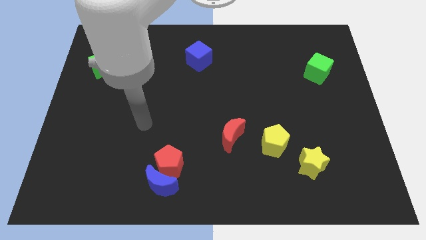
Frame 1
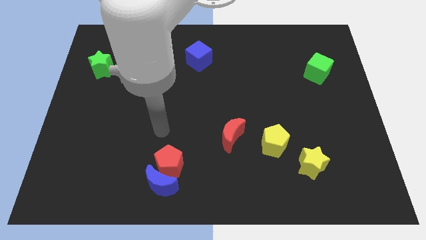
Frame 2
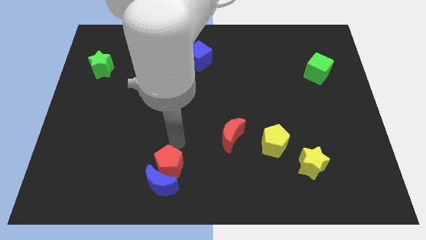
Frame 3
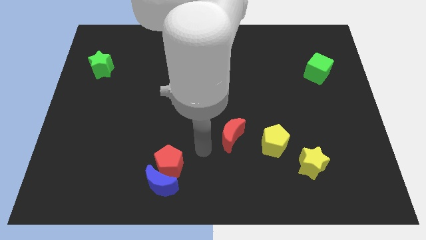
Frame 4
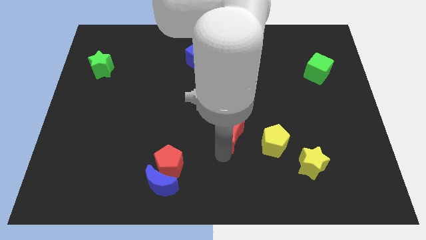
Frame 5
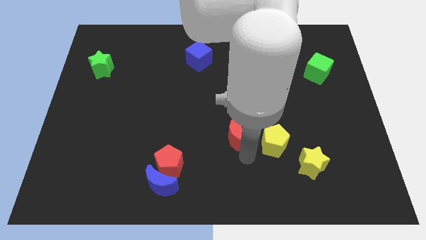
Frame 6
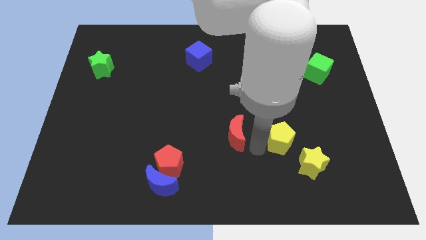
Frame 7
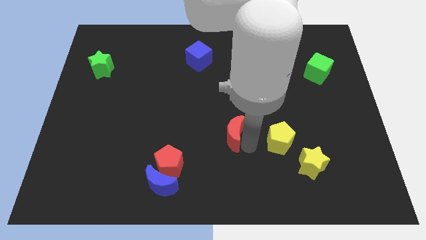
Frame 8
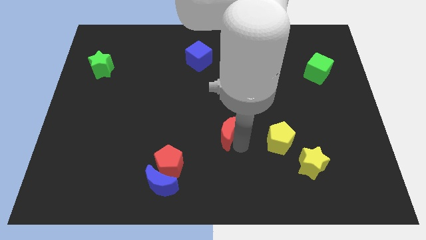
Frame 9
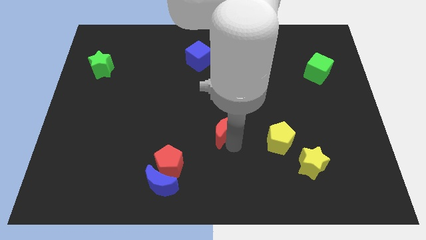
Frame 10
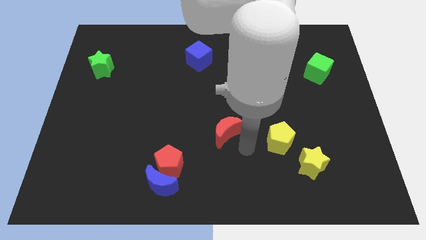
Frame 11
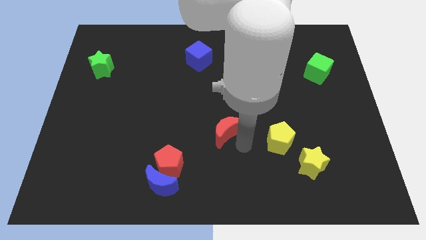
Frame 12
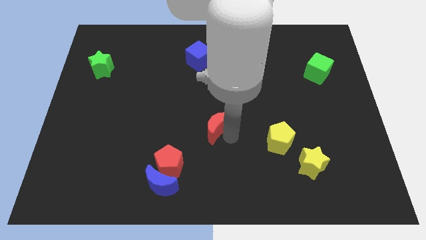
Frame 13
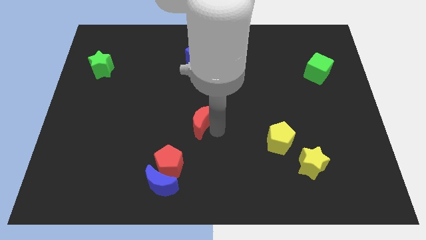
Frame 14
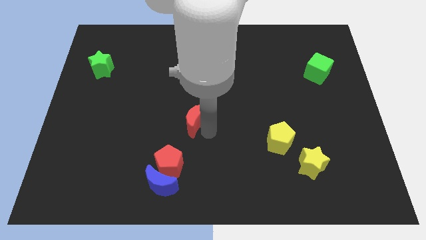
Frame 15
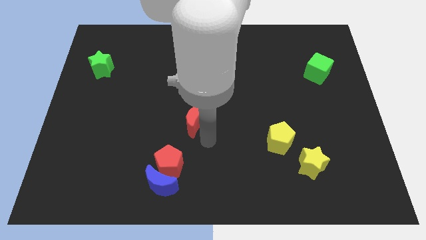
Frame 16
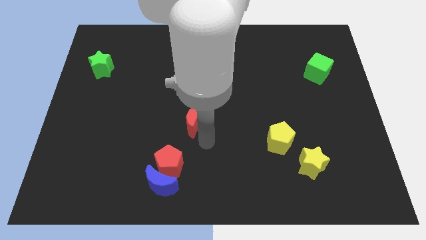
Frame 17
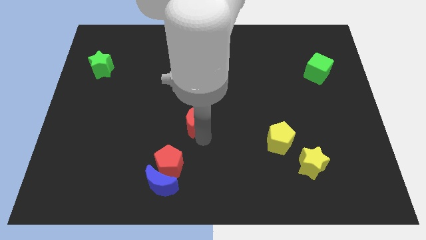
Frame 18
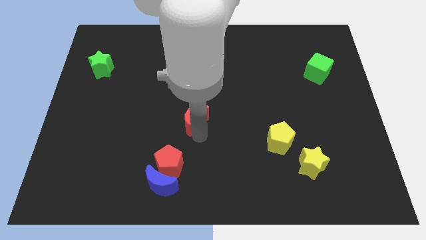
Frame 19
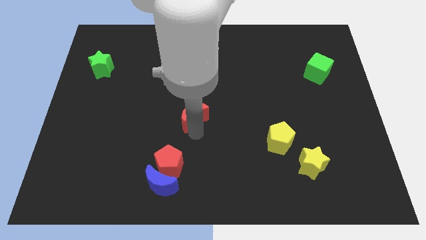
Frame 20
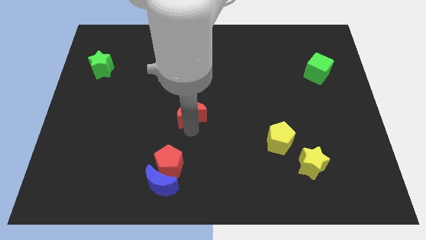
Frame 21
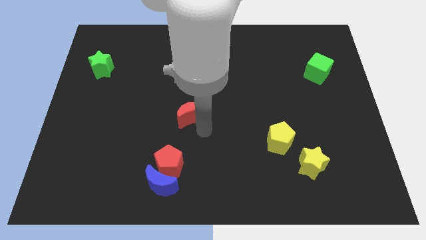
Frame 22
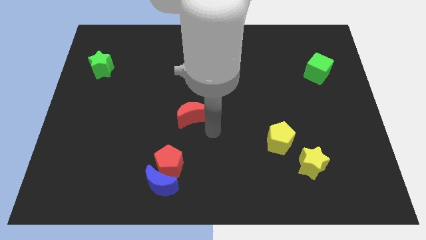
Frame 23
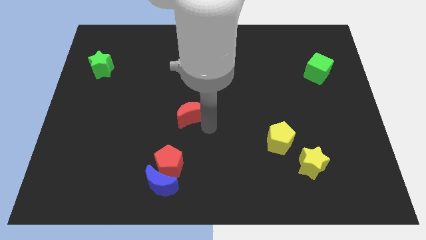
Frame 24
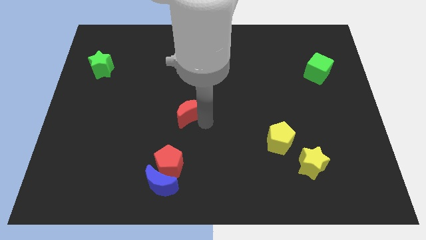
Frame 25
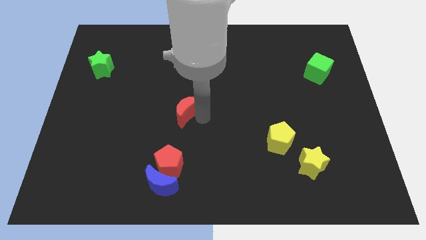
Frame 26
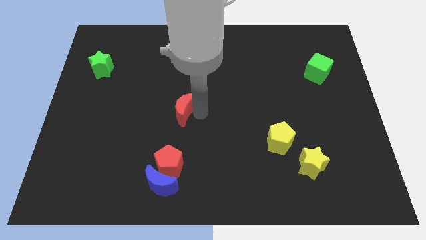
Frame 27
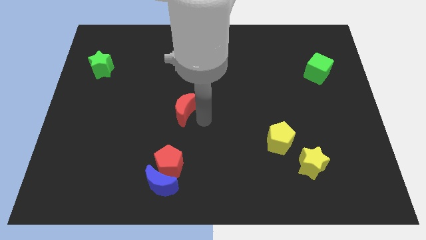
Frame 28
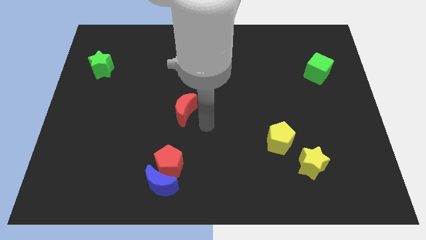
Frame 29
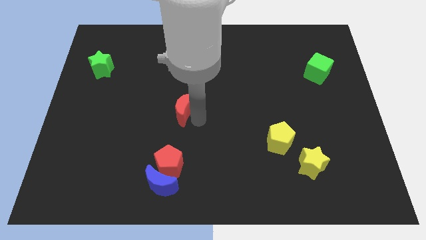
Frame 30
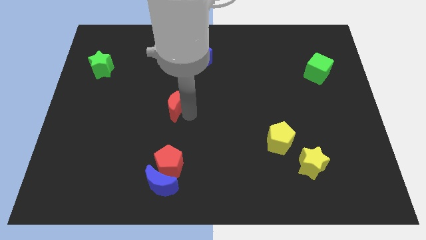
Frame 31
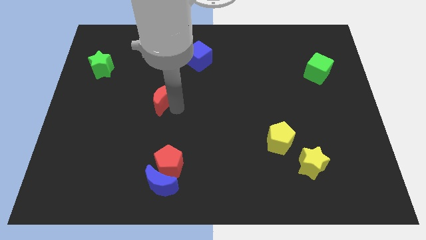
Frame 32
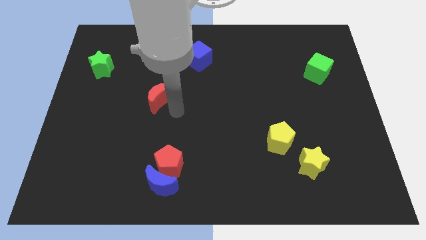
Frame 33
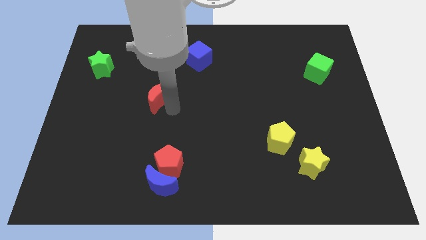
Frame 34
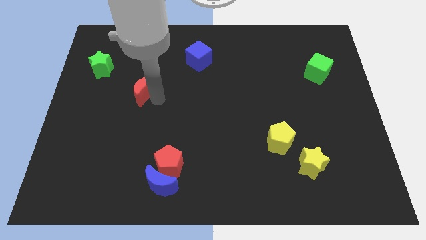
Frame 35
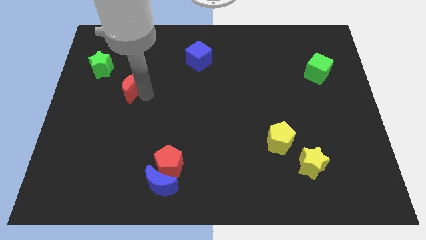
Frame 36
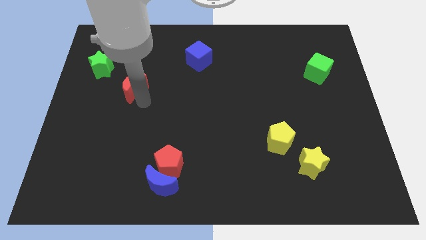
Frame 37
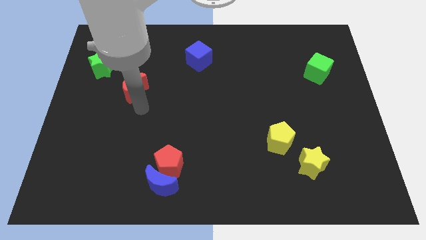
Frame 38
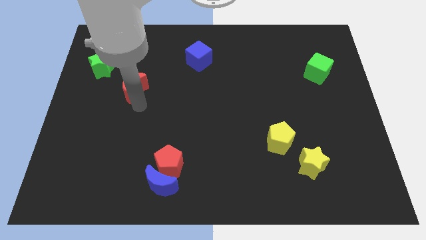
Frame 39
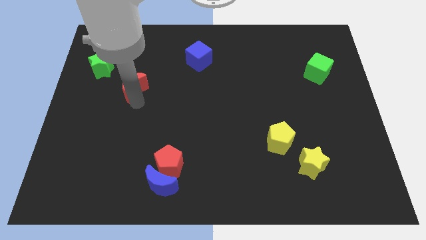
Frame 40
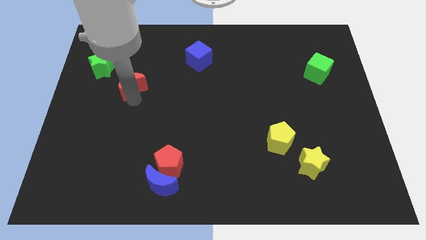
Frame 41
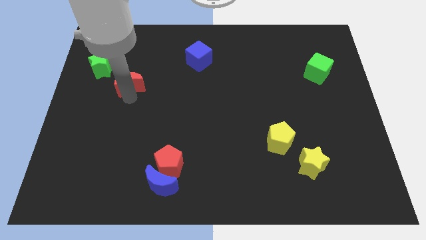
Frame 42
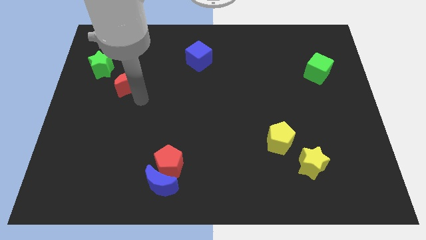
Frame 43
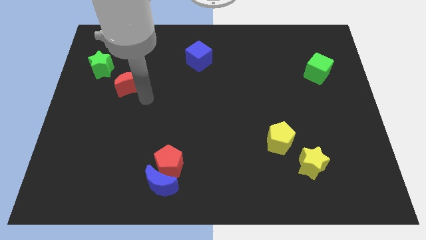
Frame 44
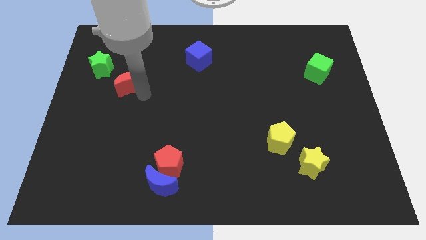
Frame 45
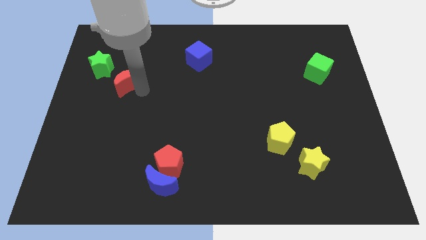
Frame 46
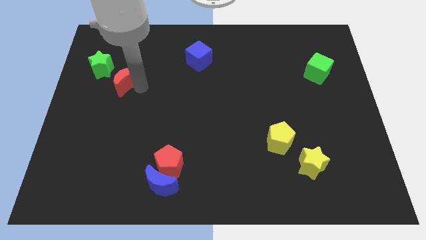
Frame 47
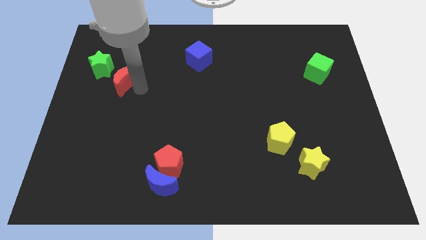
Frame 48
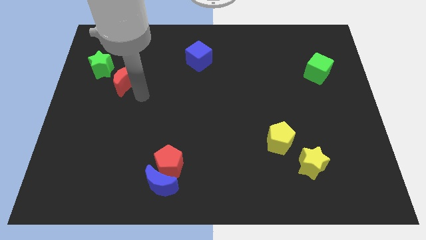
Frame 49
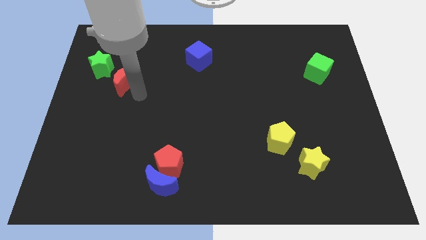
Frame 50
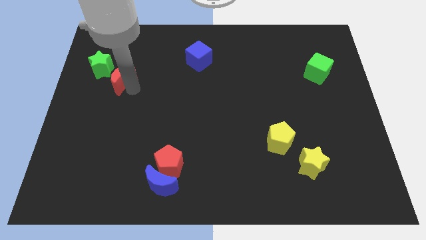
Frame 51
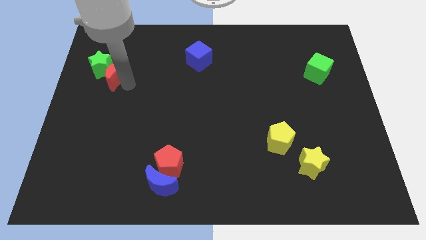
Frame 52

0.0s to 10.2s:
put the red moon towards the green star

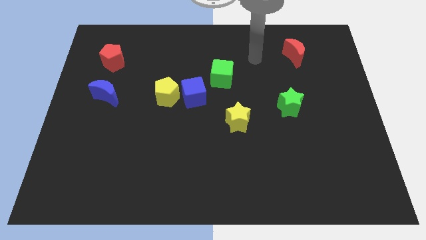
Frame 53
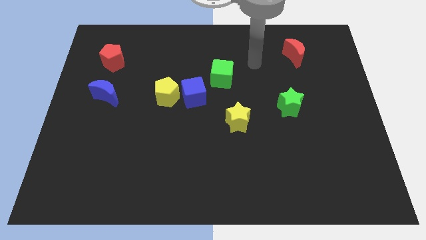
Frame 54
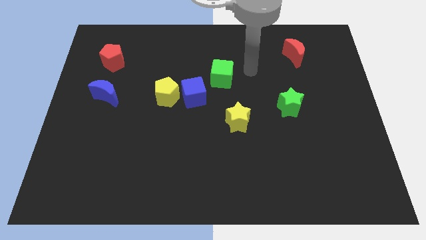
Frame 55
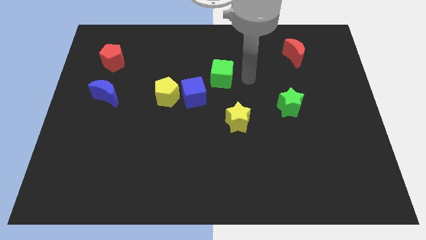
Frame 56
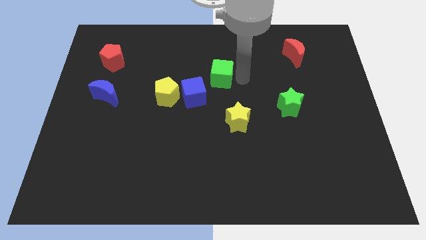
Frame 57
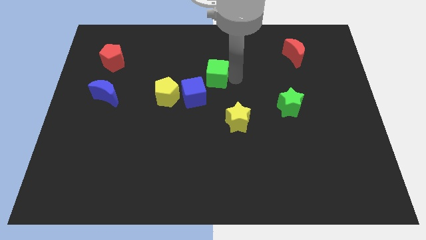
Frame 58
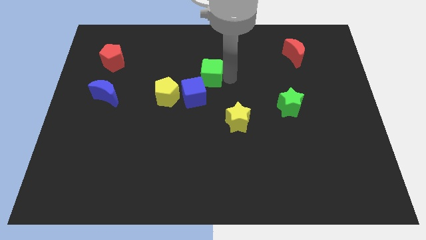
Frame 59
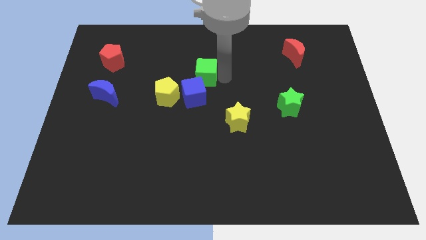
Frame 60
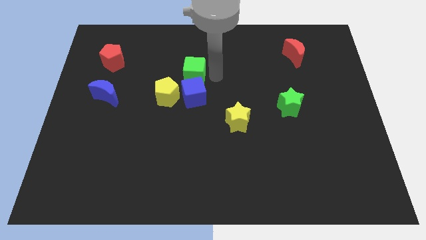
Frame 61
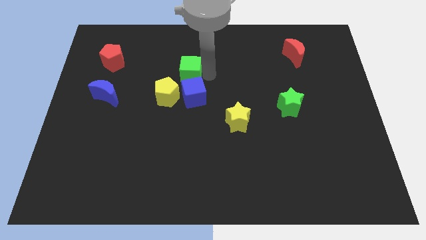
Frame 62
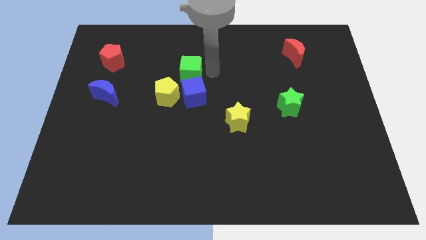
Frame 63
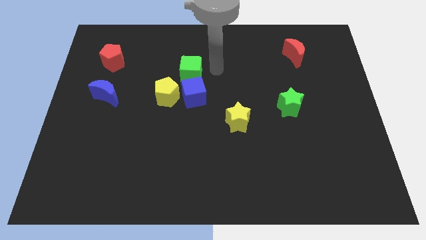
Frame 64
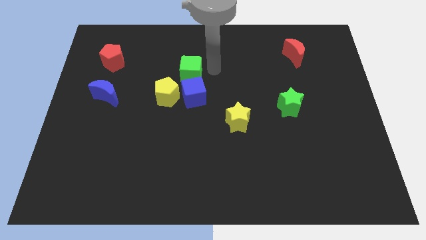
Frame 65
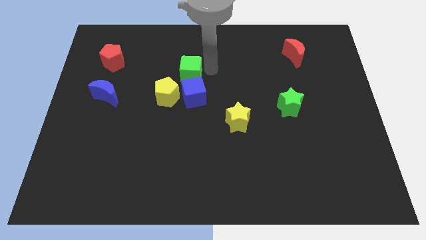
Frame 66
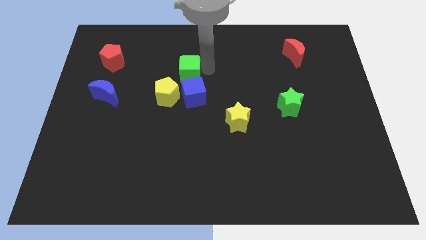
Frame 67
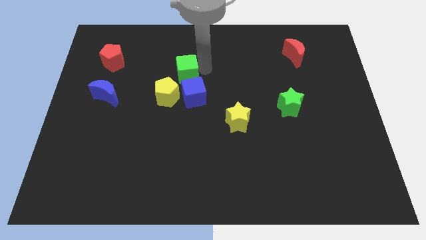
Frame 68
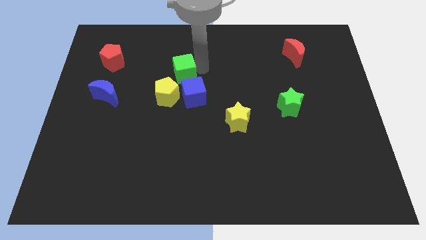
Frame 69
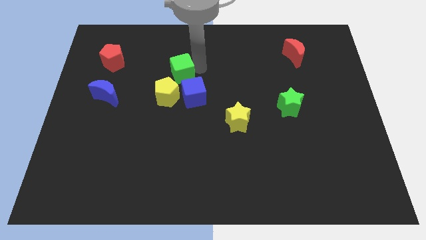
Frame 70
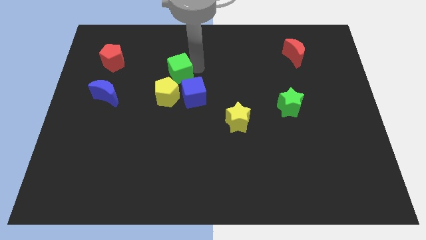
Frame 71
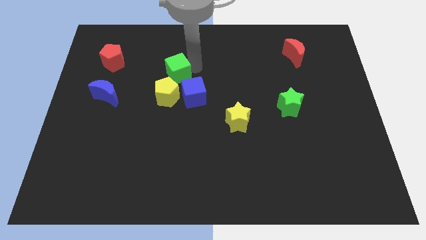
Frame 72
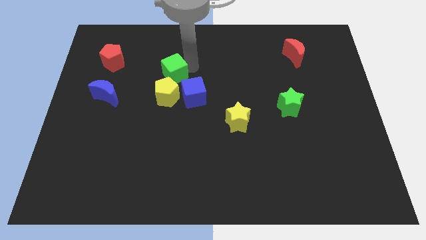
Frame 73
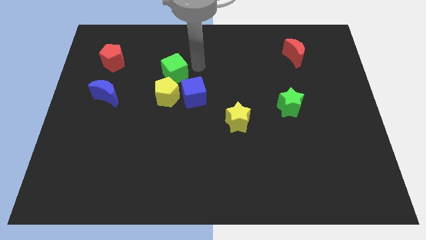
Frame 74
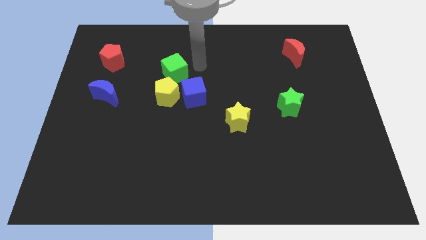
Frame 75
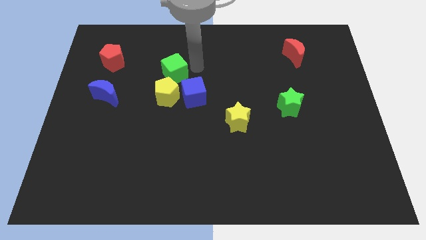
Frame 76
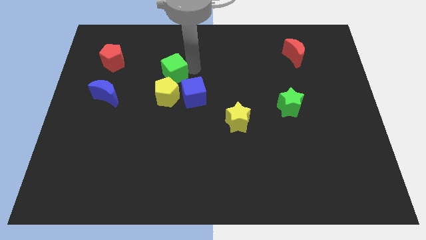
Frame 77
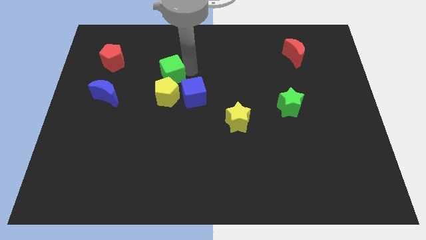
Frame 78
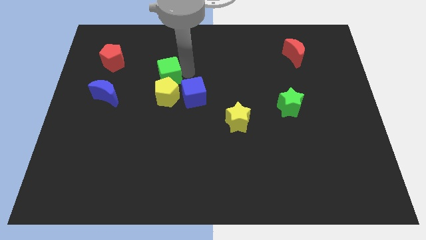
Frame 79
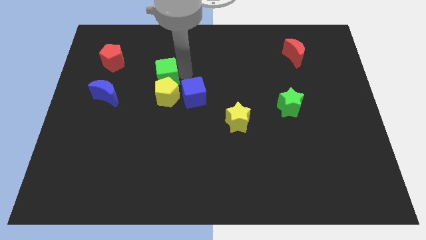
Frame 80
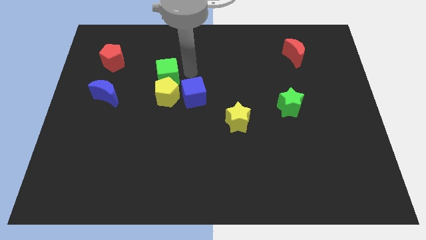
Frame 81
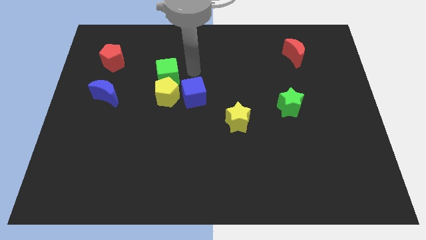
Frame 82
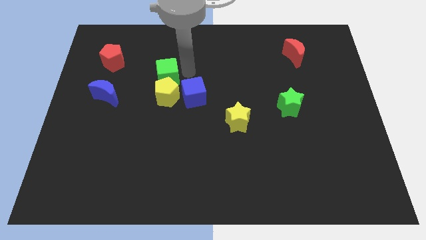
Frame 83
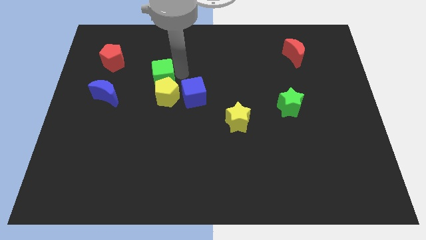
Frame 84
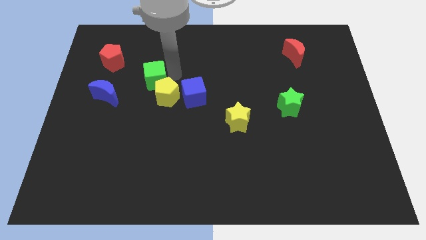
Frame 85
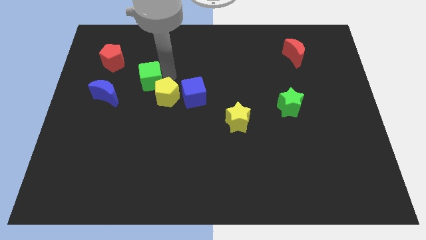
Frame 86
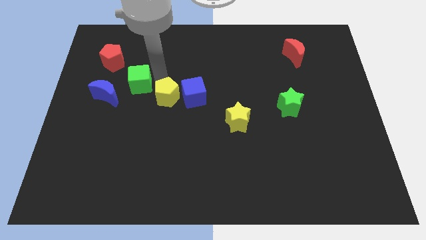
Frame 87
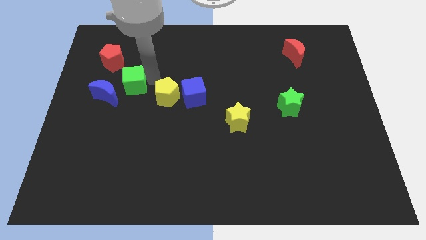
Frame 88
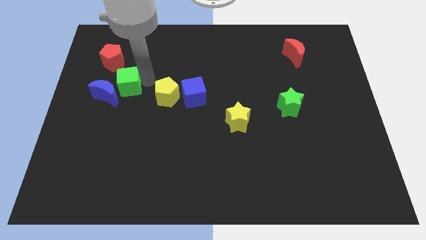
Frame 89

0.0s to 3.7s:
move the green cube next to the blue moon
